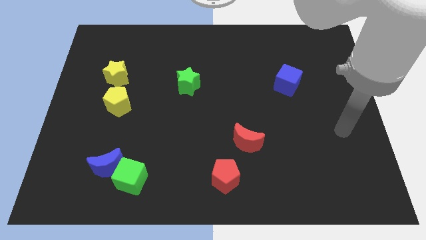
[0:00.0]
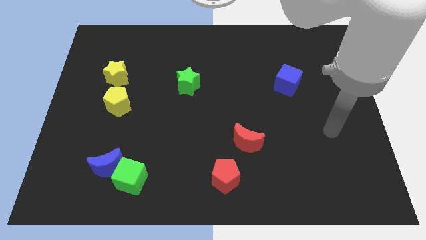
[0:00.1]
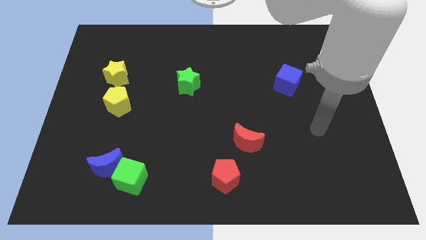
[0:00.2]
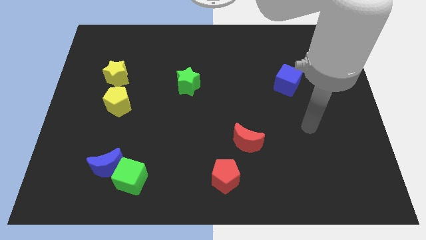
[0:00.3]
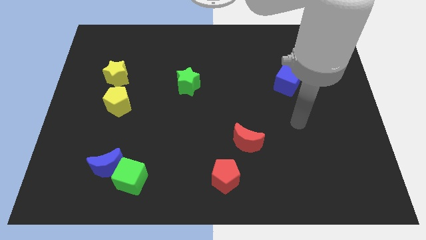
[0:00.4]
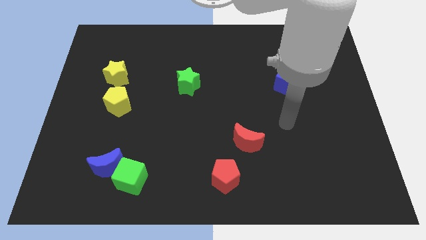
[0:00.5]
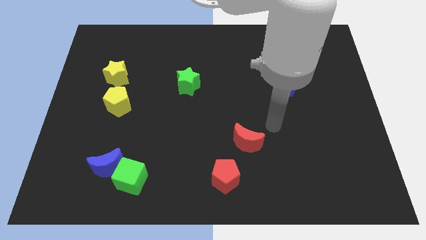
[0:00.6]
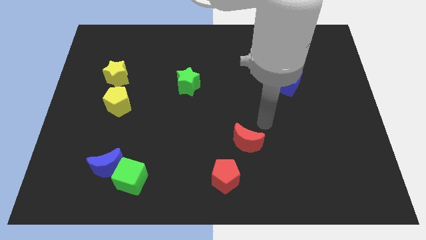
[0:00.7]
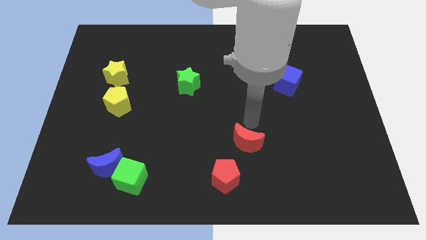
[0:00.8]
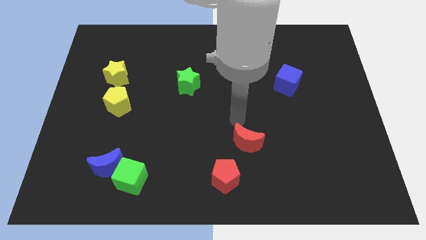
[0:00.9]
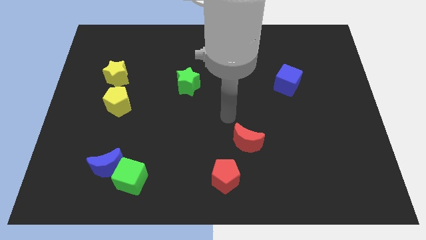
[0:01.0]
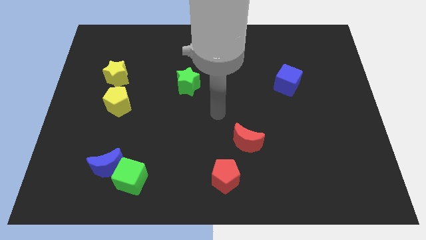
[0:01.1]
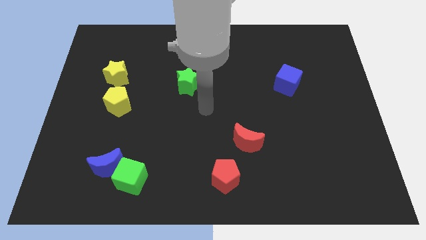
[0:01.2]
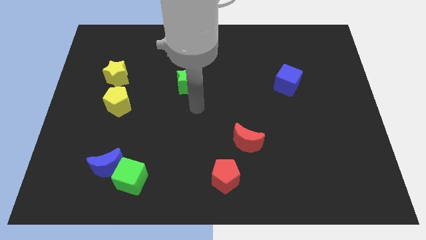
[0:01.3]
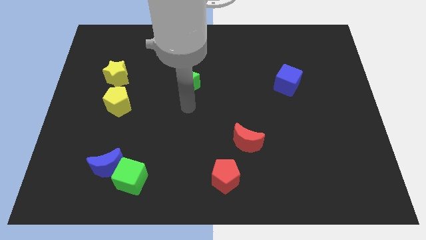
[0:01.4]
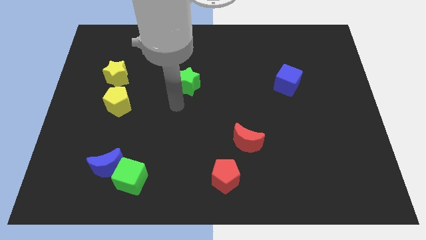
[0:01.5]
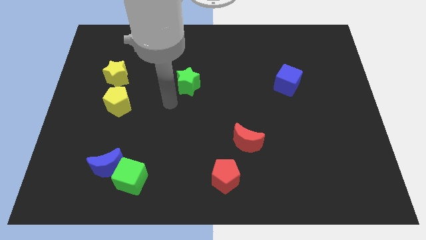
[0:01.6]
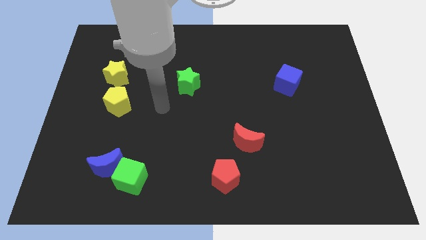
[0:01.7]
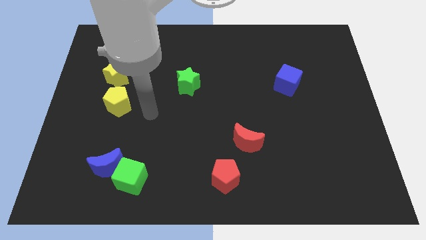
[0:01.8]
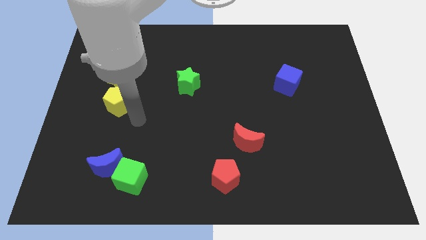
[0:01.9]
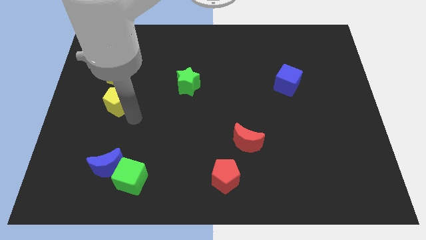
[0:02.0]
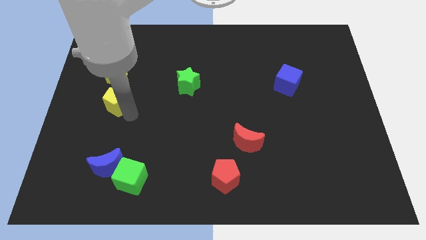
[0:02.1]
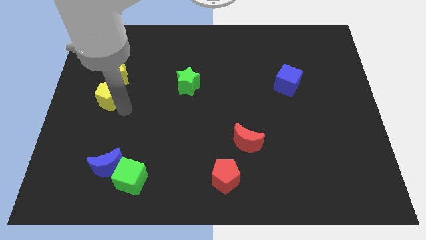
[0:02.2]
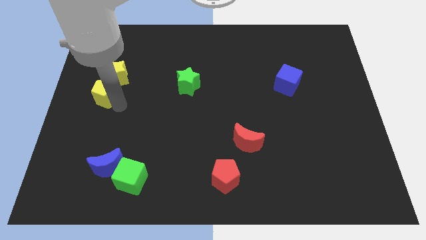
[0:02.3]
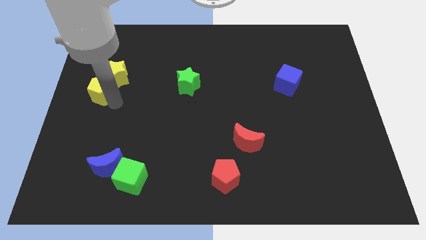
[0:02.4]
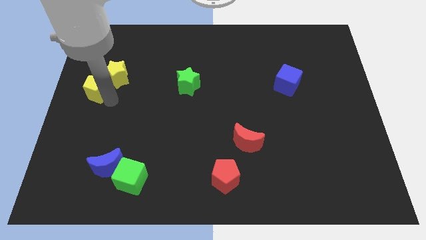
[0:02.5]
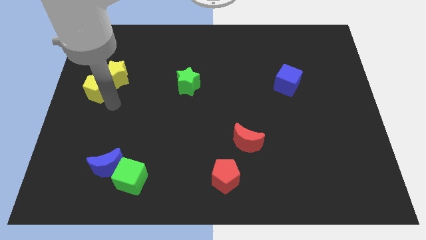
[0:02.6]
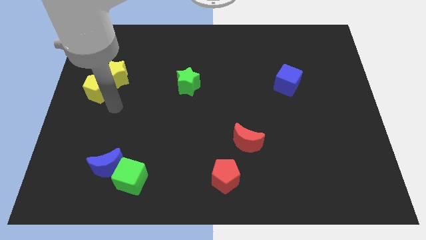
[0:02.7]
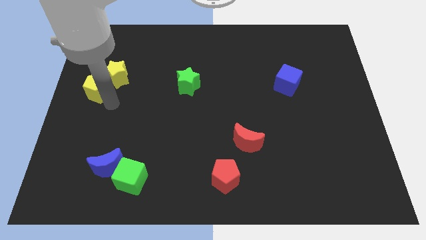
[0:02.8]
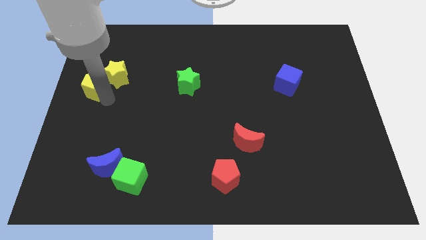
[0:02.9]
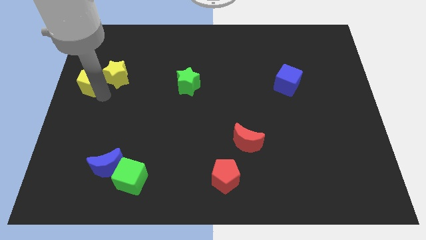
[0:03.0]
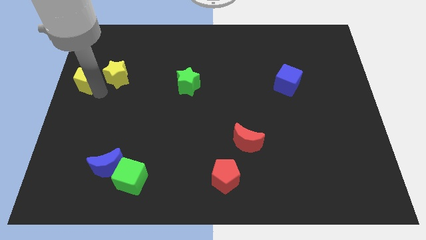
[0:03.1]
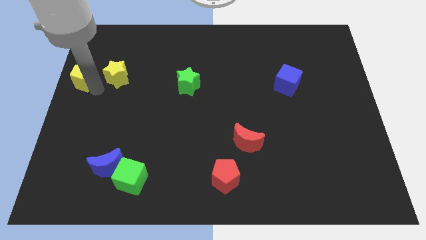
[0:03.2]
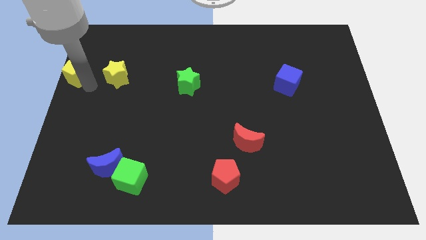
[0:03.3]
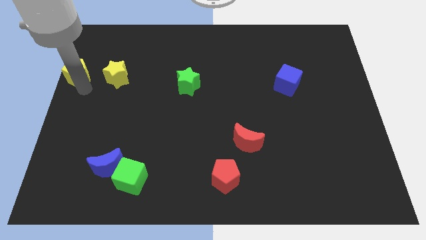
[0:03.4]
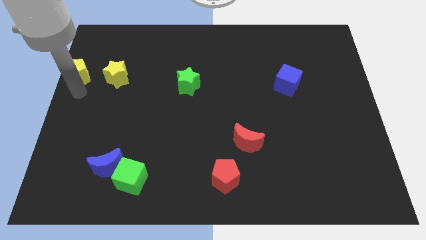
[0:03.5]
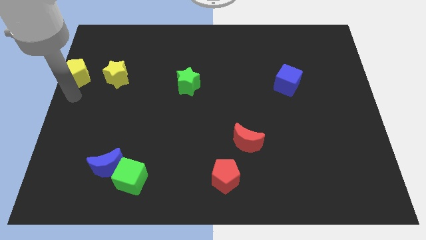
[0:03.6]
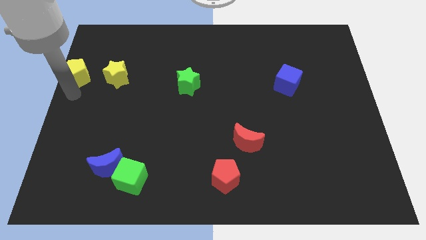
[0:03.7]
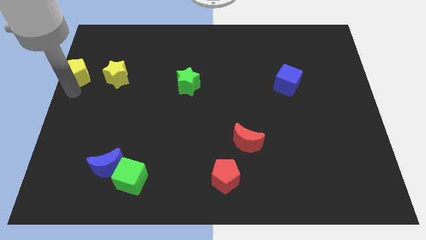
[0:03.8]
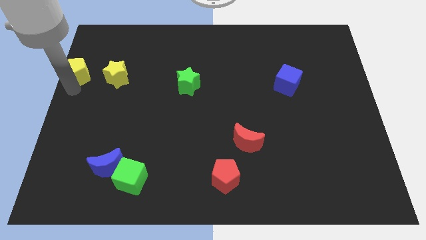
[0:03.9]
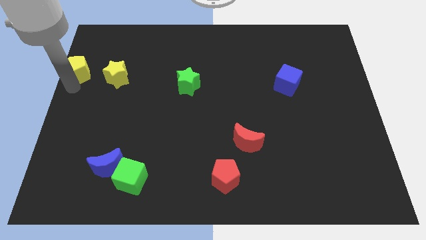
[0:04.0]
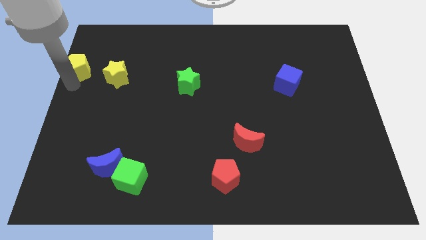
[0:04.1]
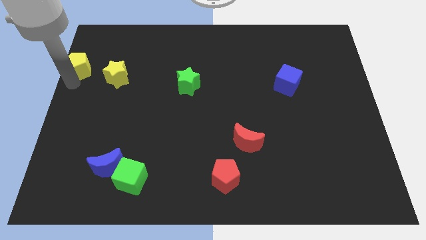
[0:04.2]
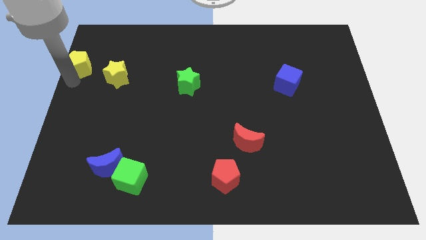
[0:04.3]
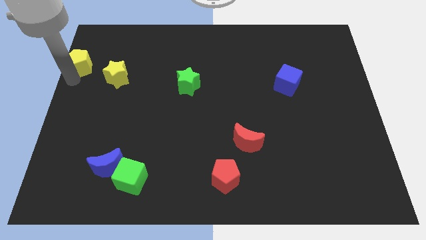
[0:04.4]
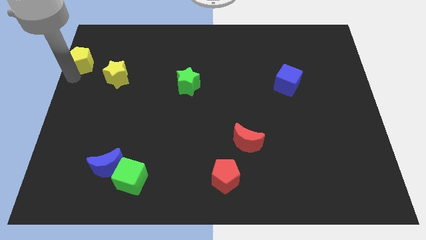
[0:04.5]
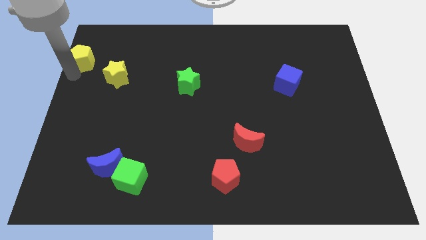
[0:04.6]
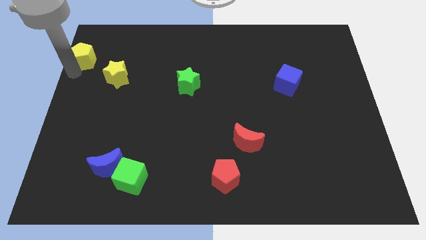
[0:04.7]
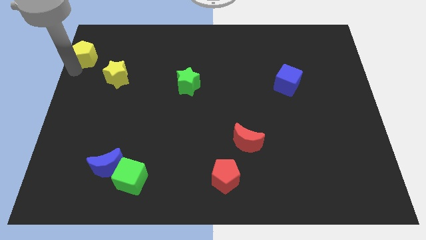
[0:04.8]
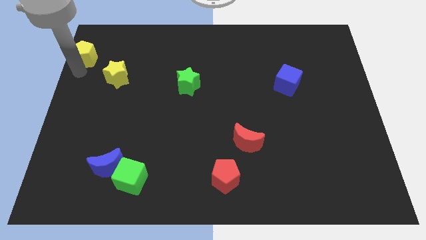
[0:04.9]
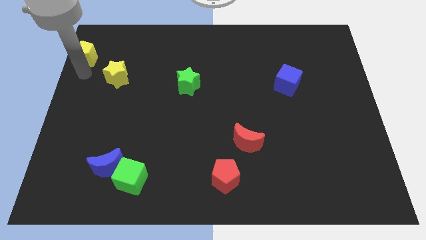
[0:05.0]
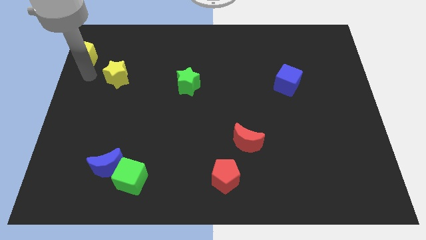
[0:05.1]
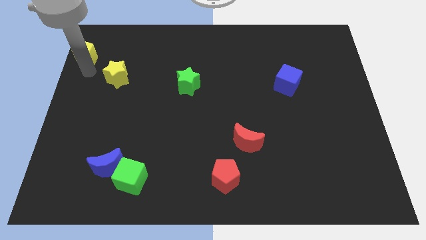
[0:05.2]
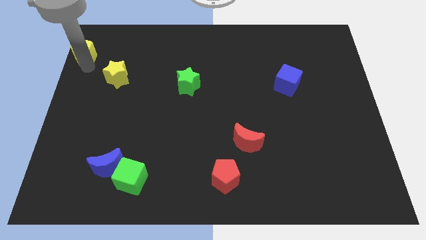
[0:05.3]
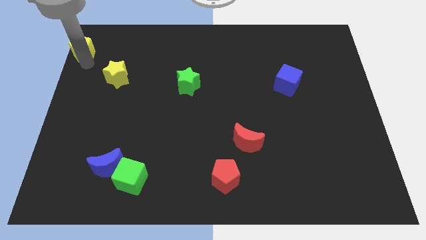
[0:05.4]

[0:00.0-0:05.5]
move the yellow pentagon to the top left corner
